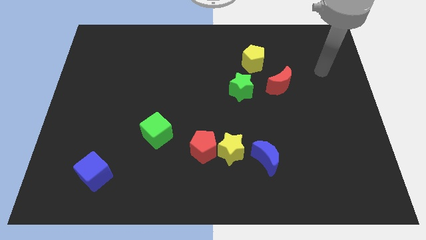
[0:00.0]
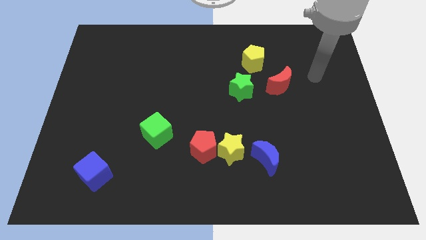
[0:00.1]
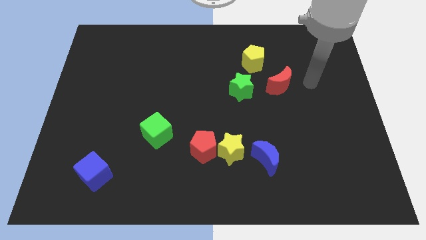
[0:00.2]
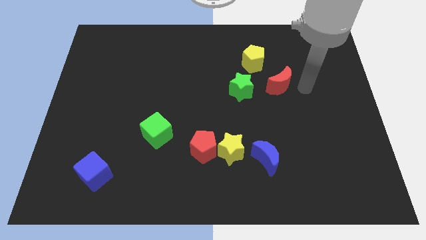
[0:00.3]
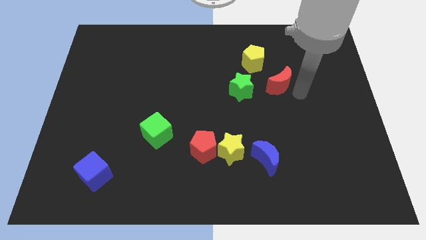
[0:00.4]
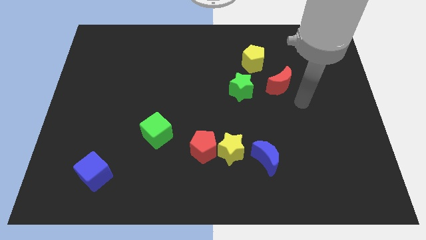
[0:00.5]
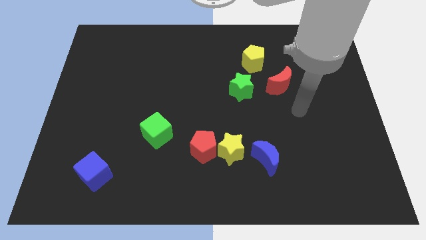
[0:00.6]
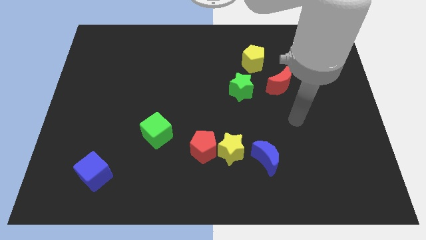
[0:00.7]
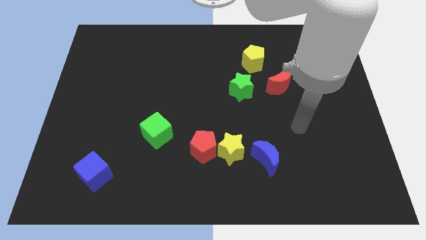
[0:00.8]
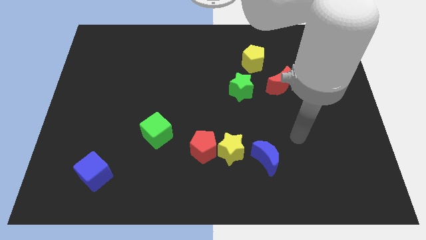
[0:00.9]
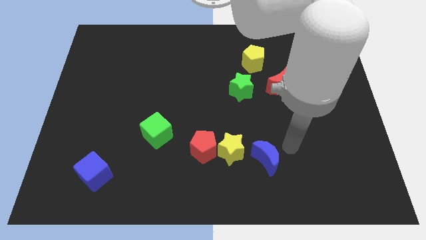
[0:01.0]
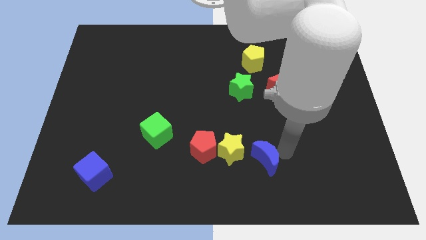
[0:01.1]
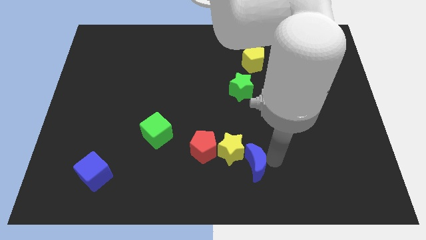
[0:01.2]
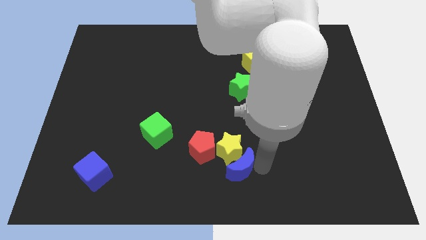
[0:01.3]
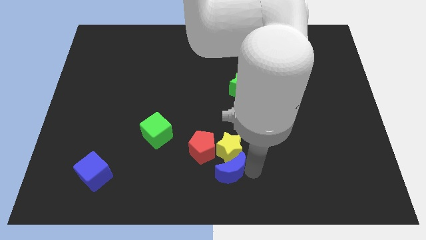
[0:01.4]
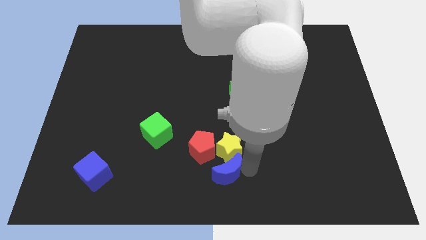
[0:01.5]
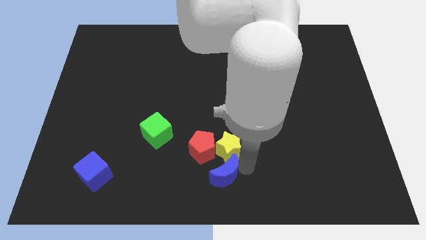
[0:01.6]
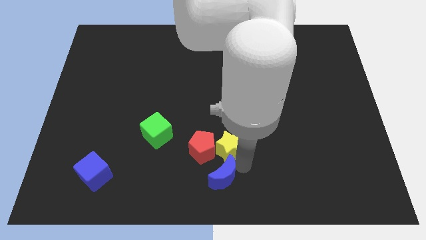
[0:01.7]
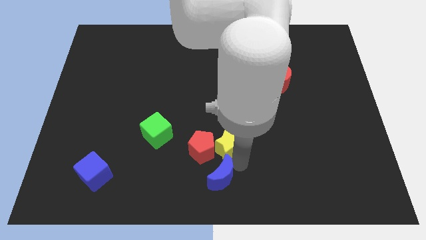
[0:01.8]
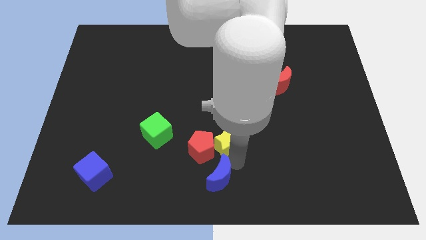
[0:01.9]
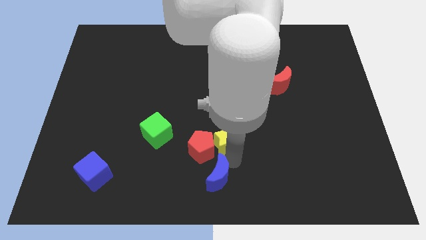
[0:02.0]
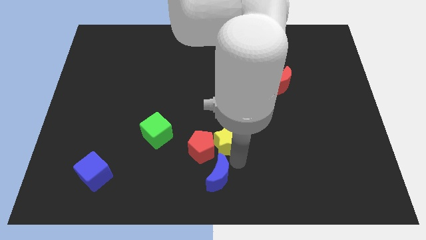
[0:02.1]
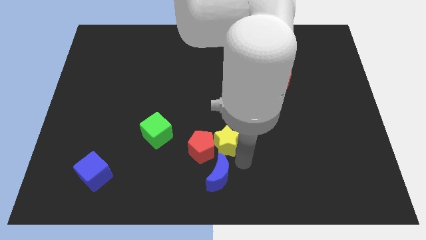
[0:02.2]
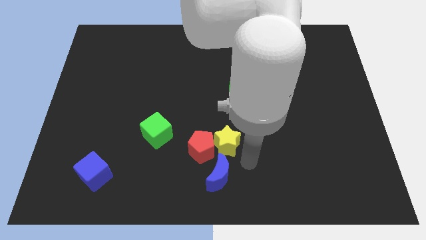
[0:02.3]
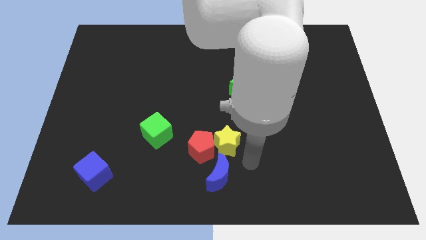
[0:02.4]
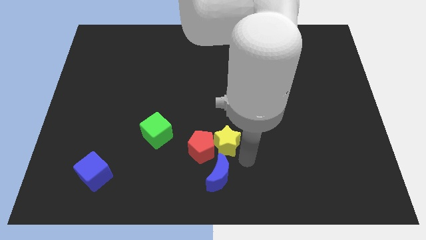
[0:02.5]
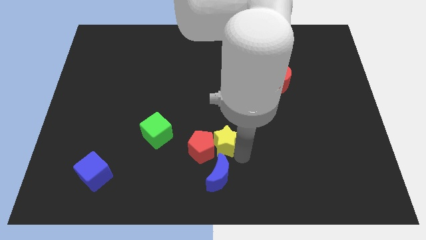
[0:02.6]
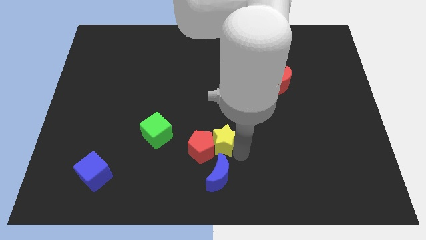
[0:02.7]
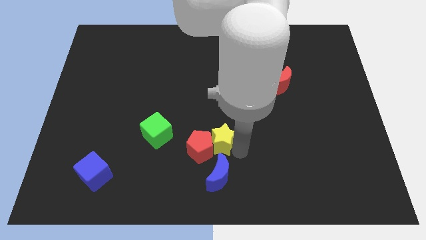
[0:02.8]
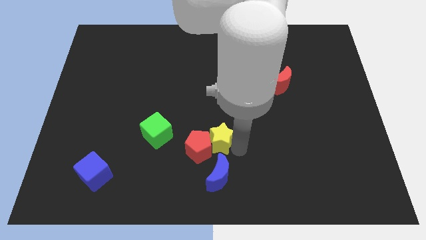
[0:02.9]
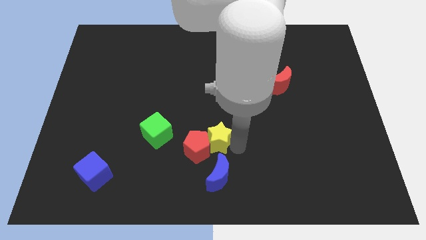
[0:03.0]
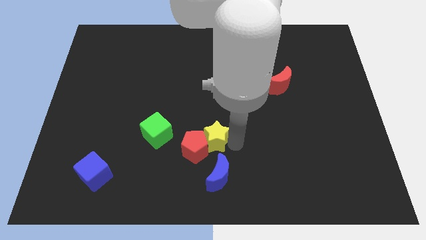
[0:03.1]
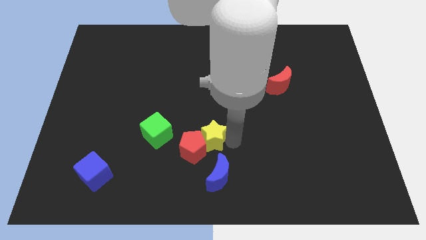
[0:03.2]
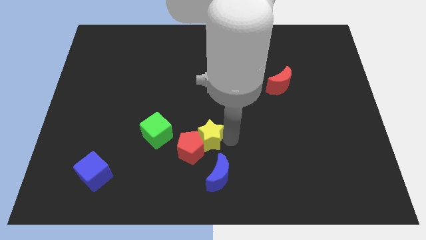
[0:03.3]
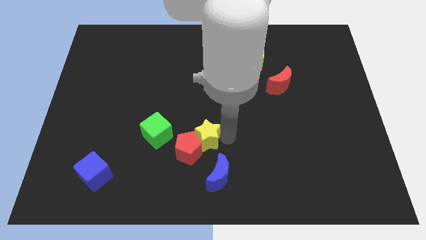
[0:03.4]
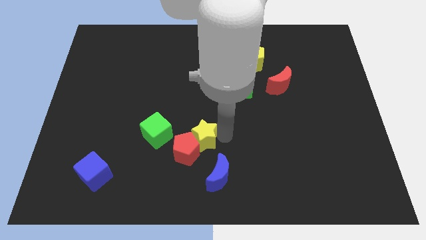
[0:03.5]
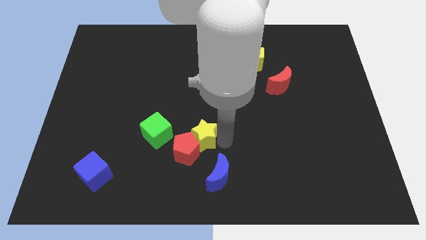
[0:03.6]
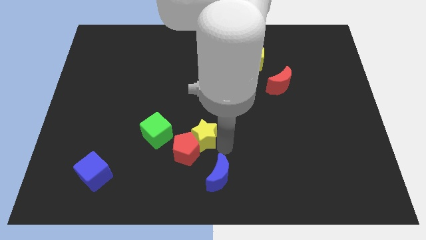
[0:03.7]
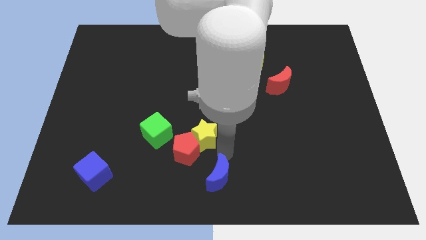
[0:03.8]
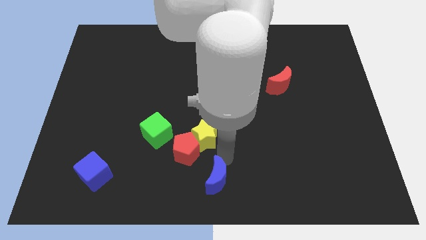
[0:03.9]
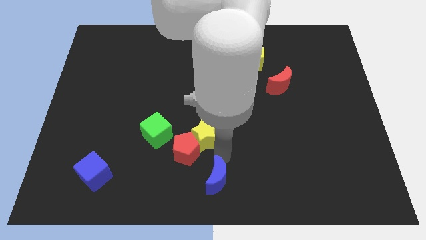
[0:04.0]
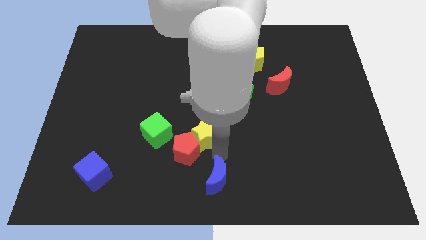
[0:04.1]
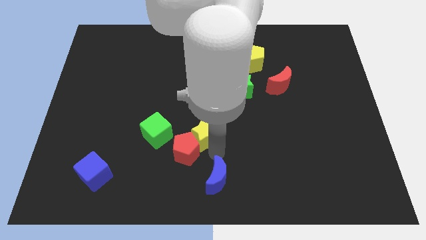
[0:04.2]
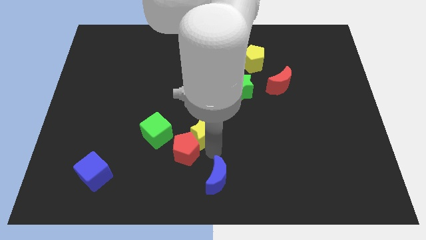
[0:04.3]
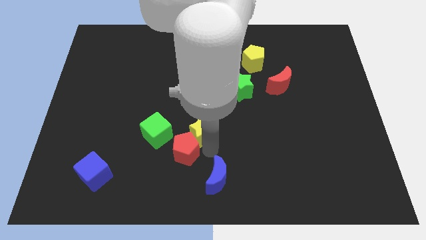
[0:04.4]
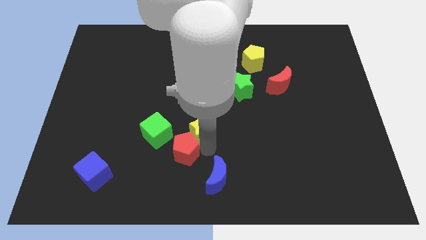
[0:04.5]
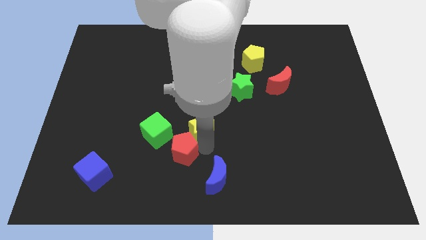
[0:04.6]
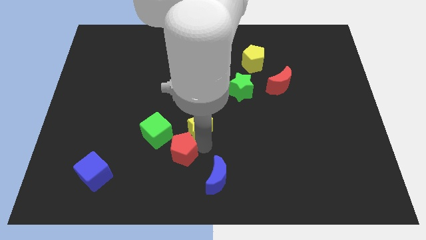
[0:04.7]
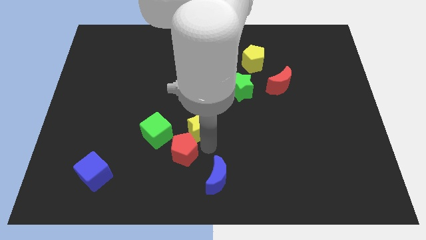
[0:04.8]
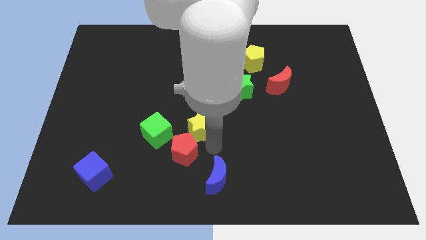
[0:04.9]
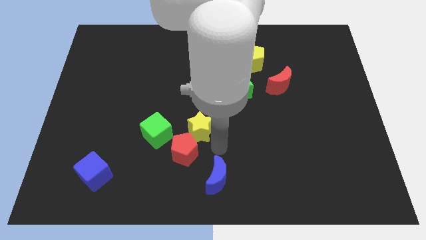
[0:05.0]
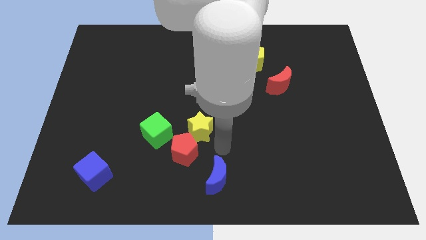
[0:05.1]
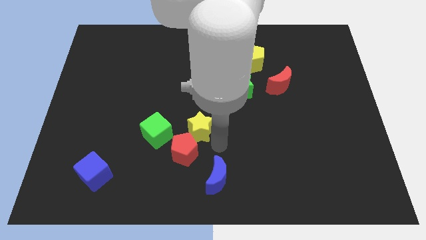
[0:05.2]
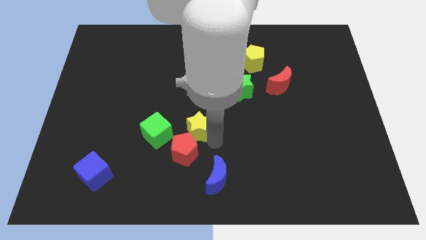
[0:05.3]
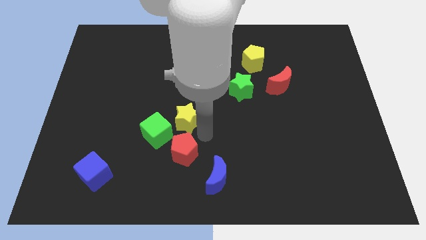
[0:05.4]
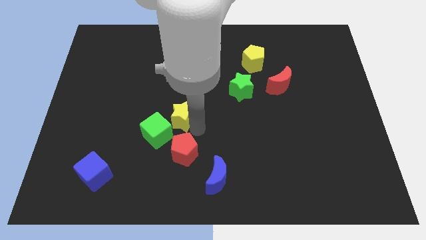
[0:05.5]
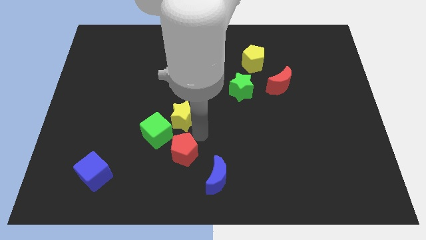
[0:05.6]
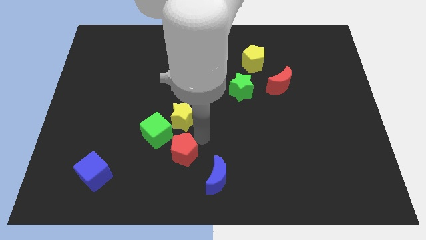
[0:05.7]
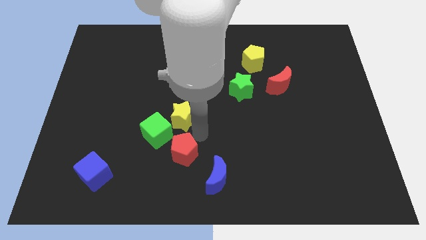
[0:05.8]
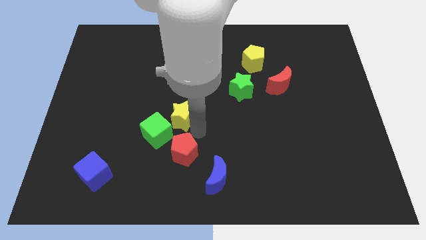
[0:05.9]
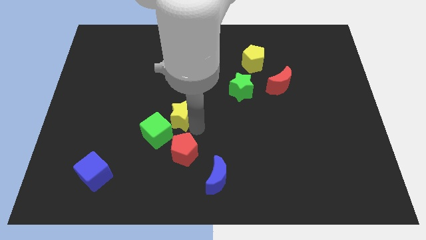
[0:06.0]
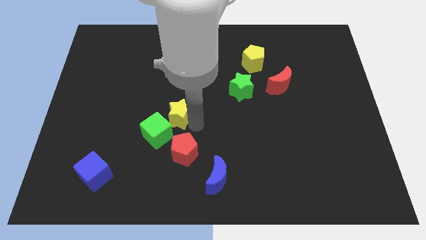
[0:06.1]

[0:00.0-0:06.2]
slide the yellow star to the top side of the green cube

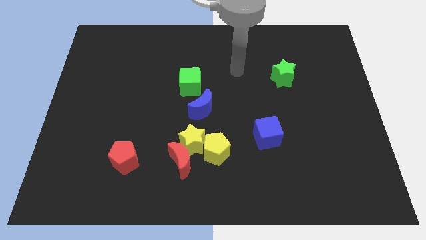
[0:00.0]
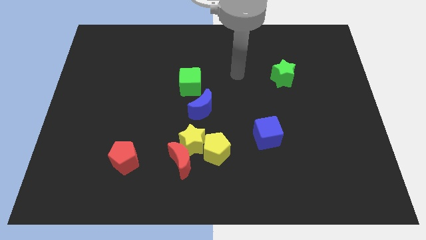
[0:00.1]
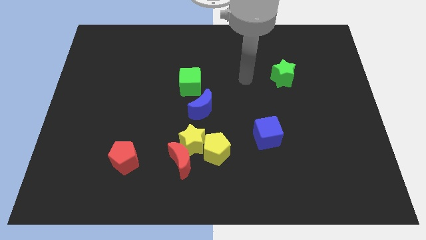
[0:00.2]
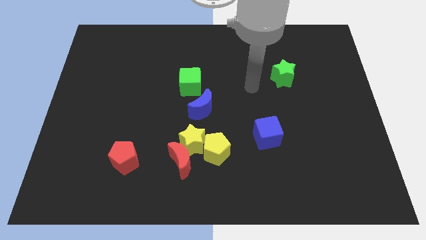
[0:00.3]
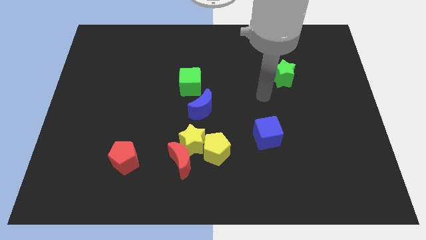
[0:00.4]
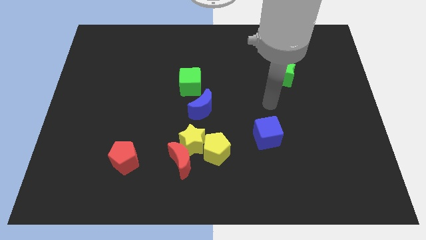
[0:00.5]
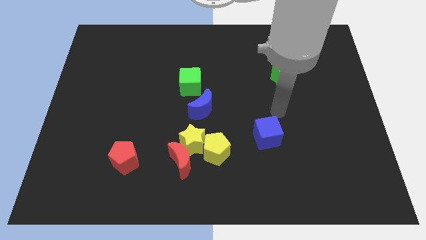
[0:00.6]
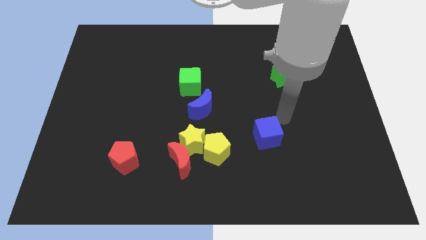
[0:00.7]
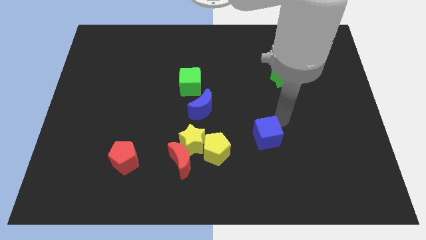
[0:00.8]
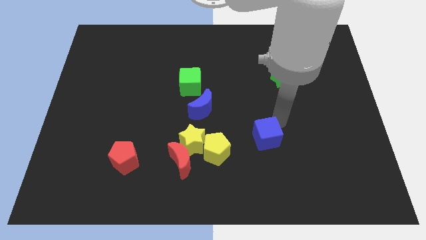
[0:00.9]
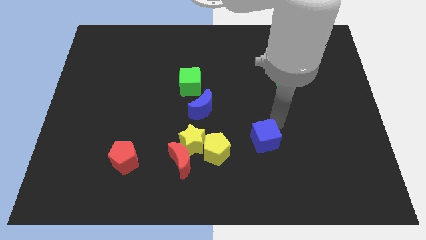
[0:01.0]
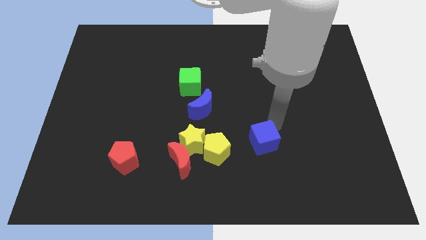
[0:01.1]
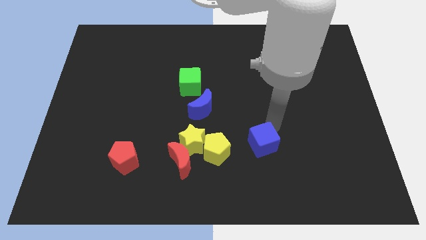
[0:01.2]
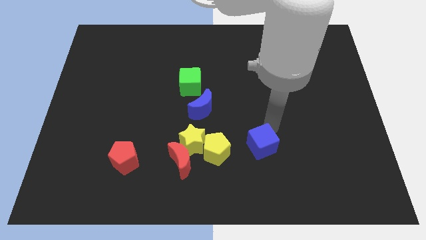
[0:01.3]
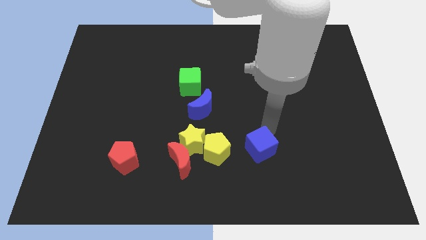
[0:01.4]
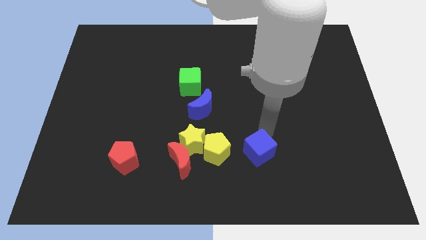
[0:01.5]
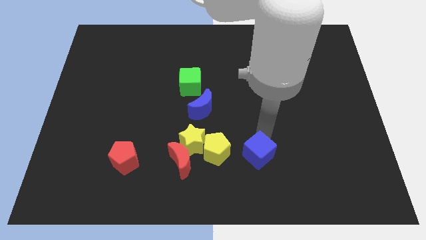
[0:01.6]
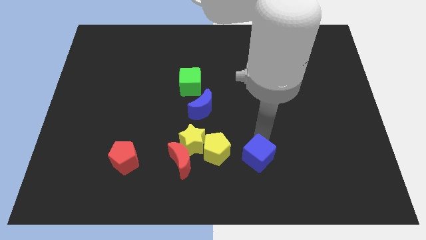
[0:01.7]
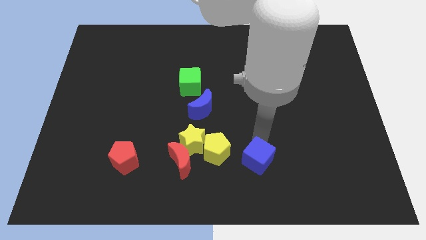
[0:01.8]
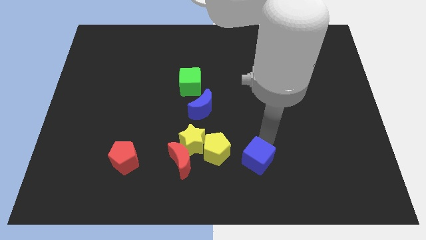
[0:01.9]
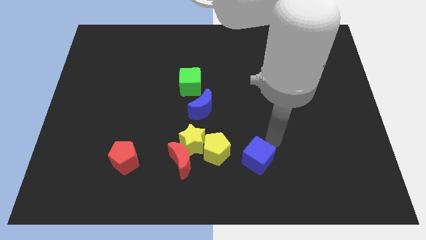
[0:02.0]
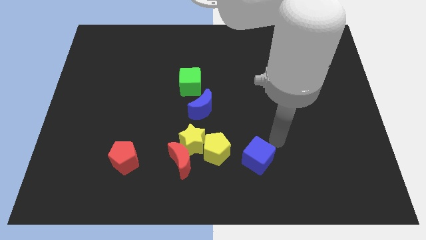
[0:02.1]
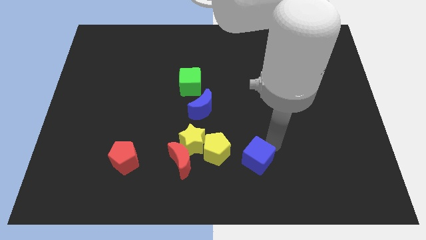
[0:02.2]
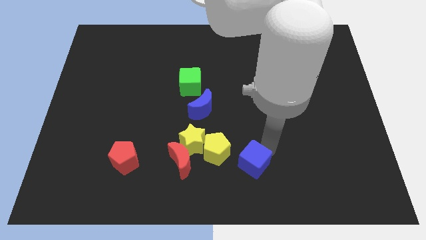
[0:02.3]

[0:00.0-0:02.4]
push the blue cube to the bottom right side of the yellow pentagon
